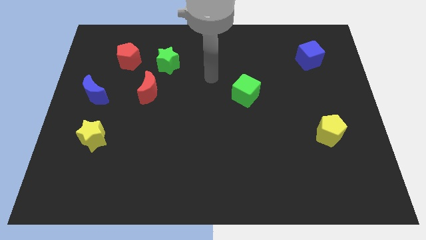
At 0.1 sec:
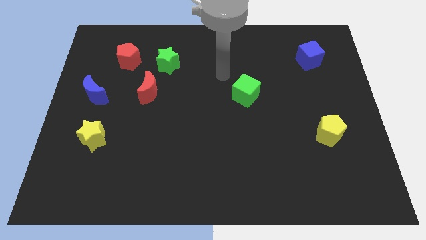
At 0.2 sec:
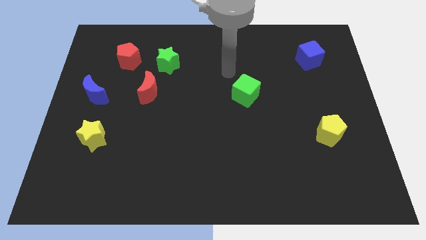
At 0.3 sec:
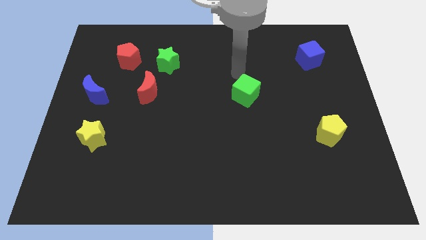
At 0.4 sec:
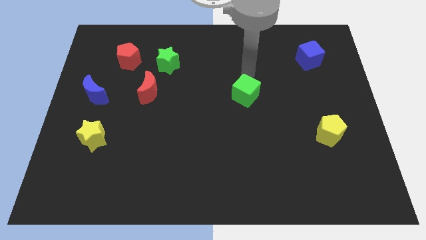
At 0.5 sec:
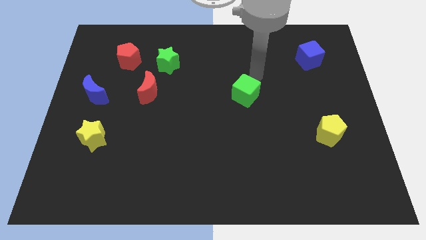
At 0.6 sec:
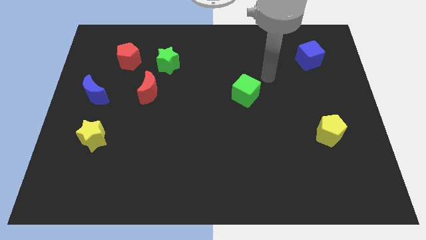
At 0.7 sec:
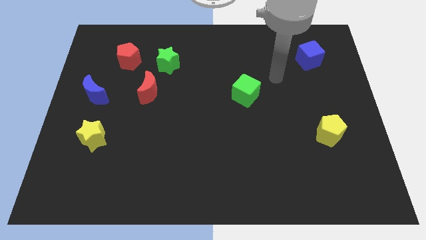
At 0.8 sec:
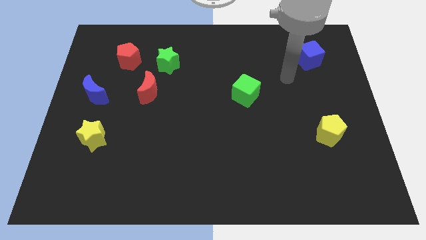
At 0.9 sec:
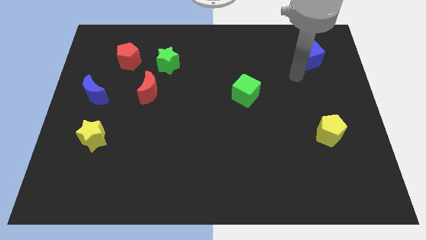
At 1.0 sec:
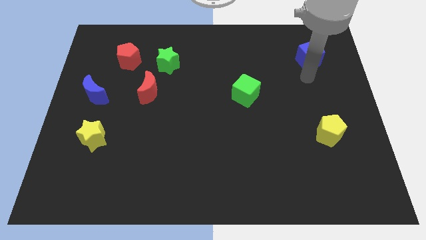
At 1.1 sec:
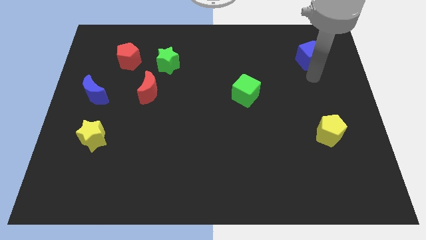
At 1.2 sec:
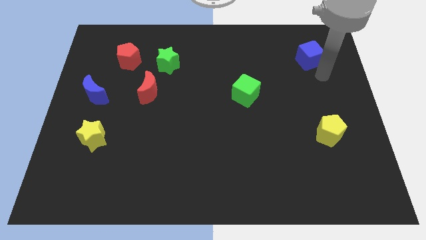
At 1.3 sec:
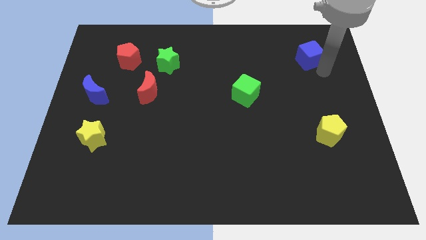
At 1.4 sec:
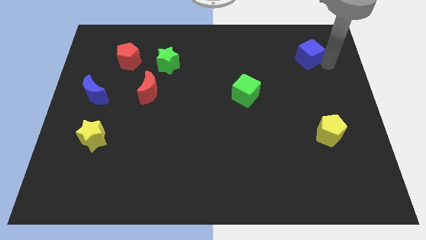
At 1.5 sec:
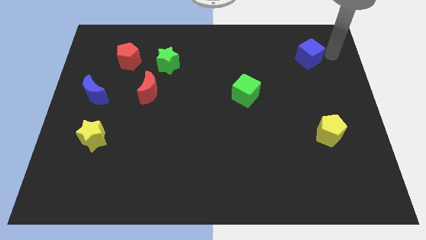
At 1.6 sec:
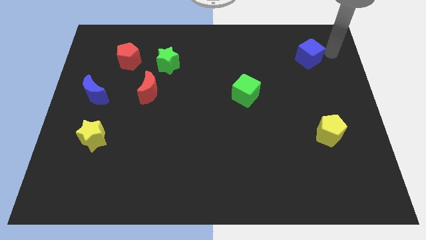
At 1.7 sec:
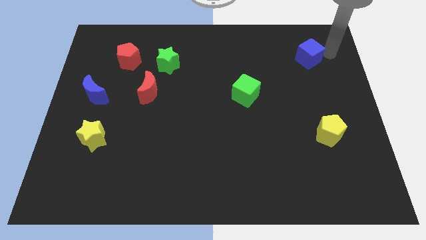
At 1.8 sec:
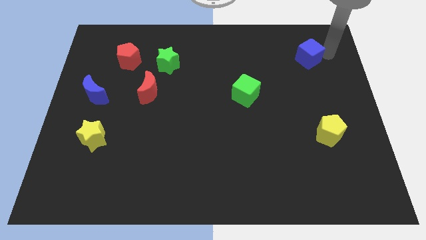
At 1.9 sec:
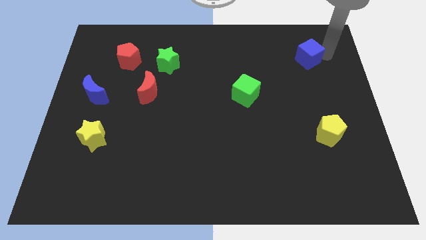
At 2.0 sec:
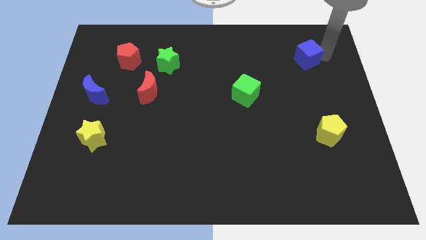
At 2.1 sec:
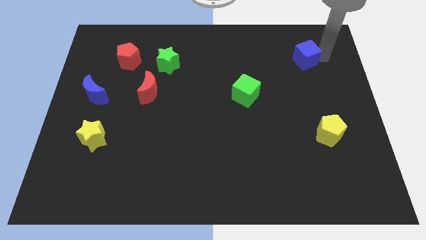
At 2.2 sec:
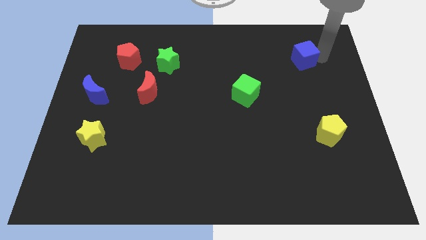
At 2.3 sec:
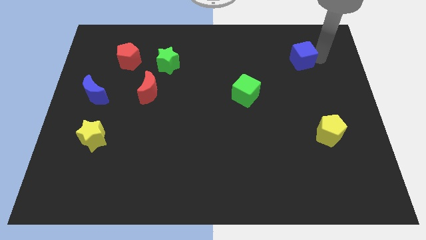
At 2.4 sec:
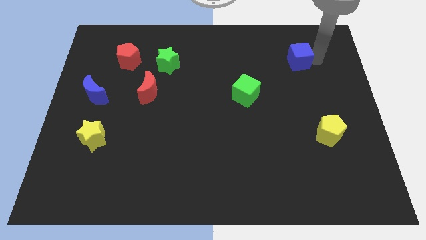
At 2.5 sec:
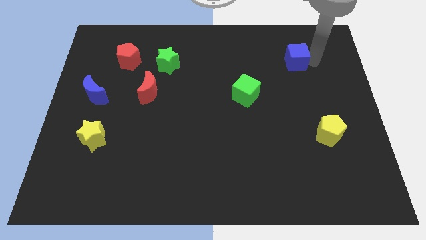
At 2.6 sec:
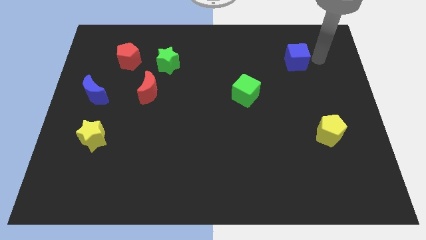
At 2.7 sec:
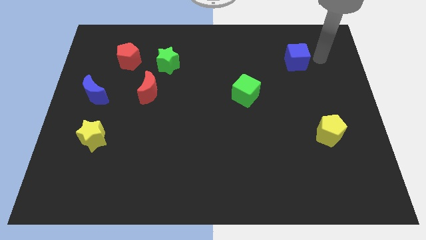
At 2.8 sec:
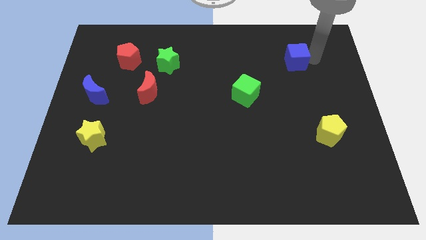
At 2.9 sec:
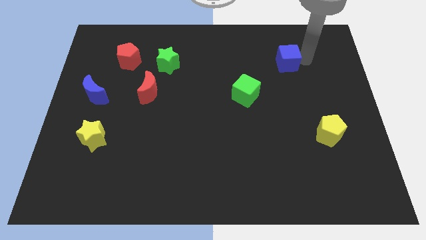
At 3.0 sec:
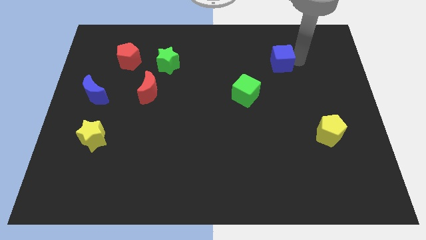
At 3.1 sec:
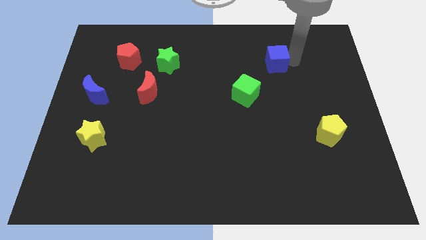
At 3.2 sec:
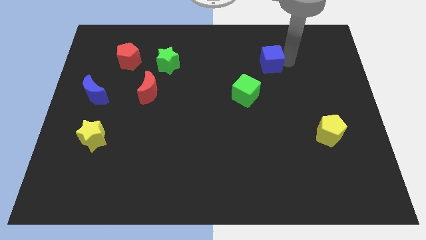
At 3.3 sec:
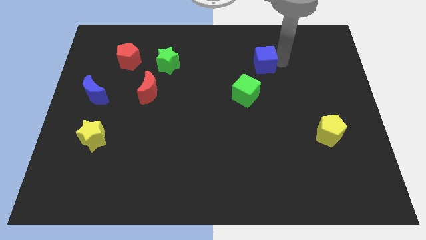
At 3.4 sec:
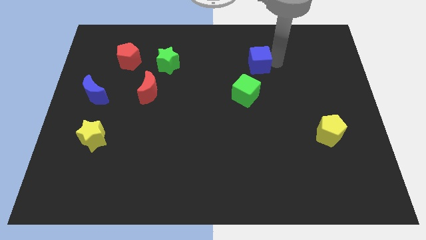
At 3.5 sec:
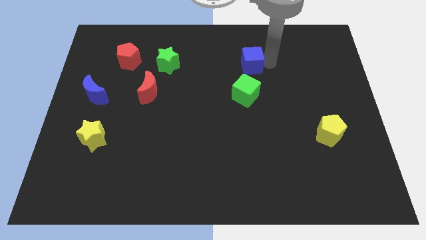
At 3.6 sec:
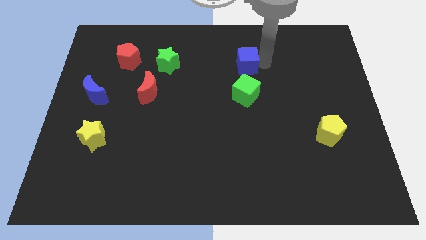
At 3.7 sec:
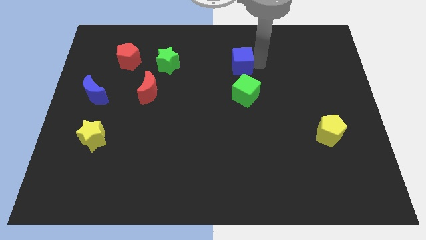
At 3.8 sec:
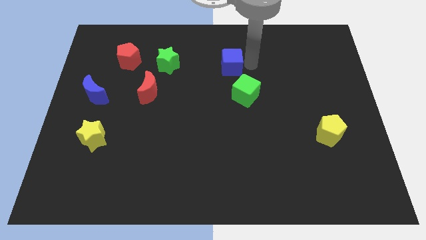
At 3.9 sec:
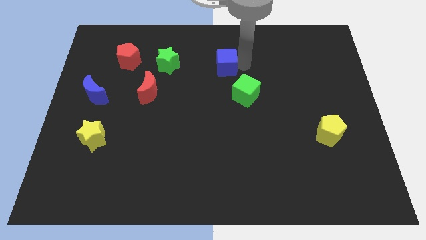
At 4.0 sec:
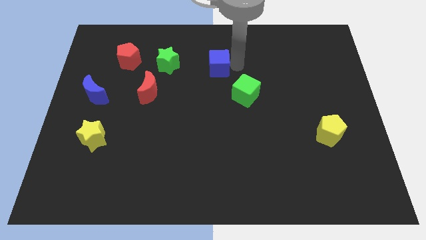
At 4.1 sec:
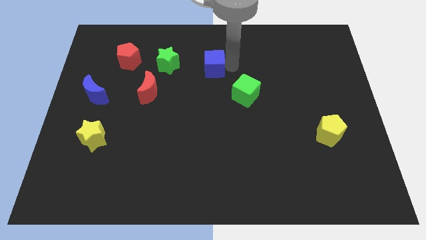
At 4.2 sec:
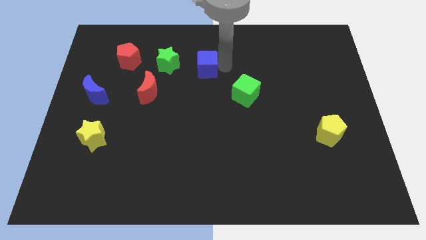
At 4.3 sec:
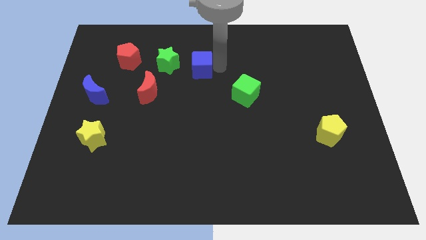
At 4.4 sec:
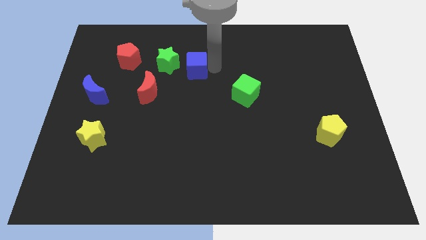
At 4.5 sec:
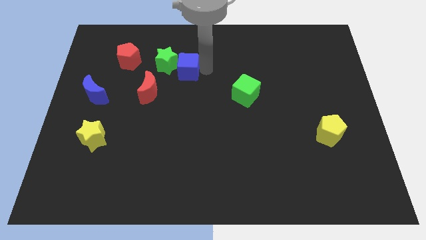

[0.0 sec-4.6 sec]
push the blue cube to the green star

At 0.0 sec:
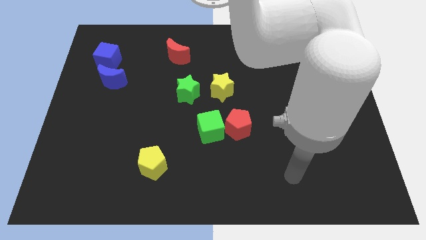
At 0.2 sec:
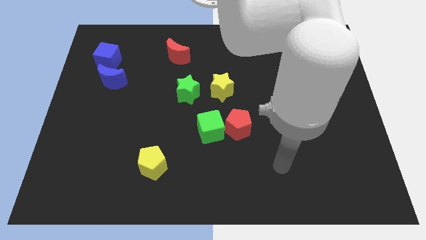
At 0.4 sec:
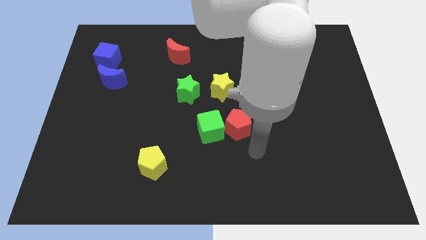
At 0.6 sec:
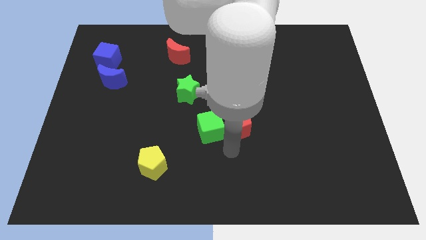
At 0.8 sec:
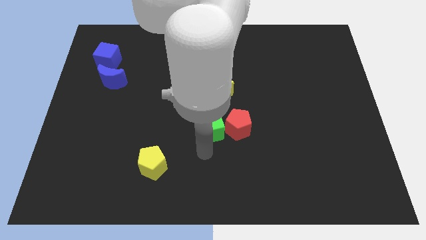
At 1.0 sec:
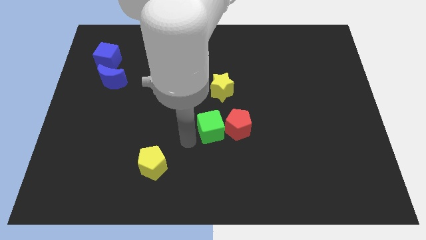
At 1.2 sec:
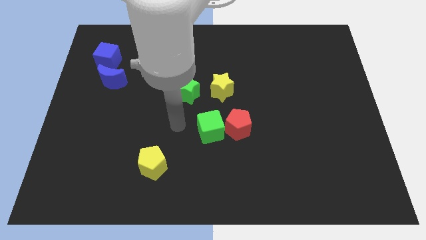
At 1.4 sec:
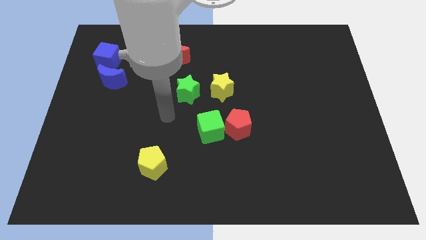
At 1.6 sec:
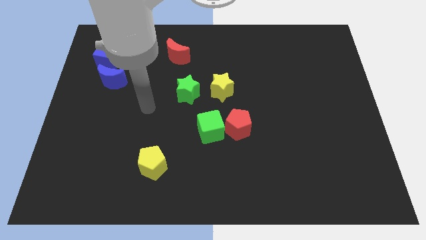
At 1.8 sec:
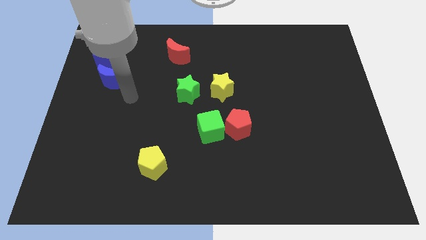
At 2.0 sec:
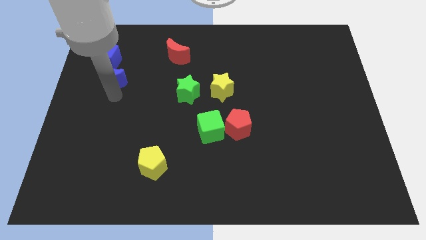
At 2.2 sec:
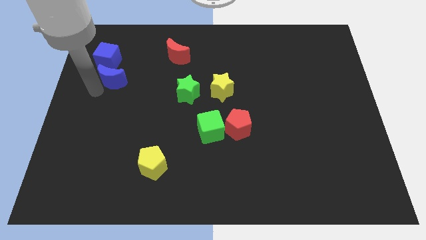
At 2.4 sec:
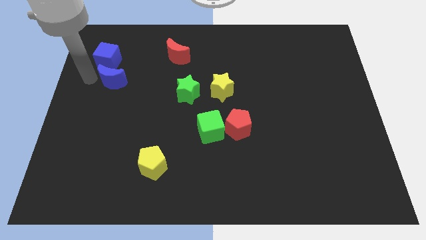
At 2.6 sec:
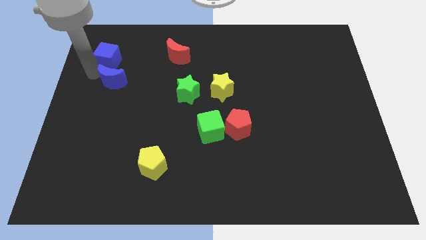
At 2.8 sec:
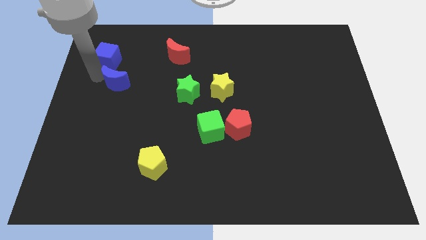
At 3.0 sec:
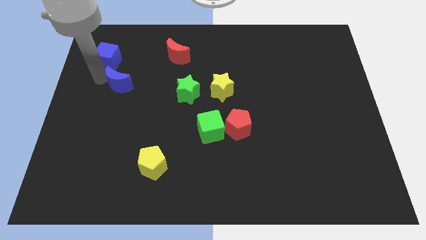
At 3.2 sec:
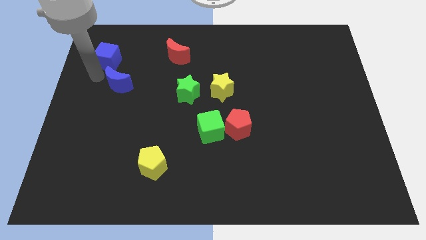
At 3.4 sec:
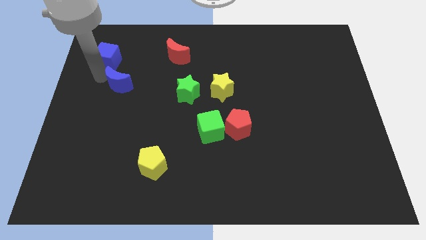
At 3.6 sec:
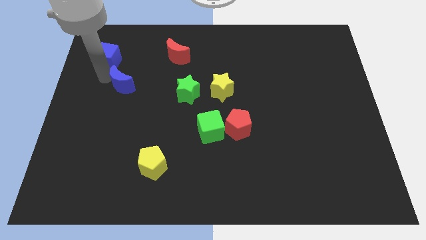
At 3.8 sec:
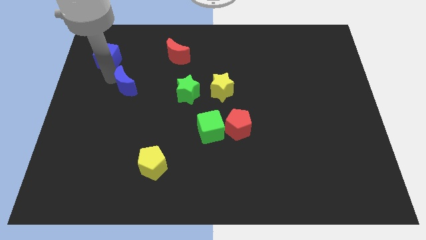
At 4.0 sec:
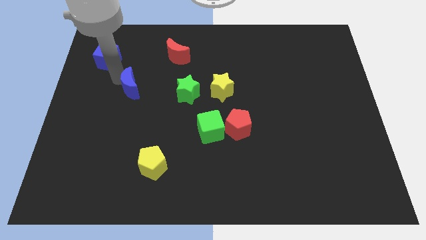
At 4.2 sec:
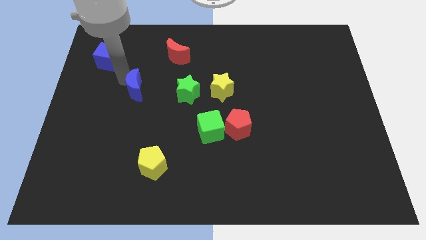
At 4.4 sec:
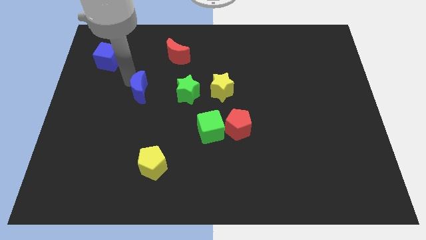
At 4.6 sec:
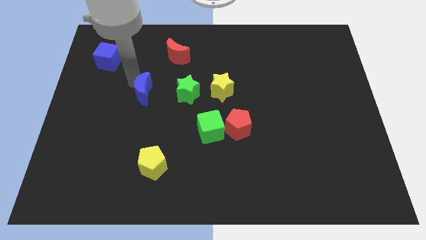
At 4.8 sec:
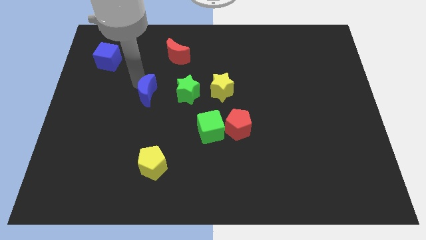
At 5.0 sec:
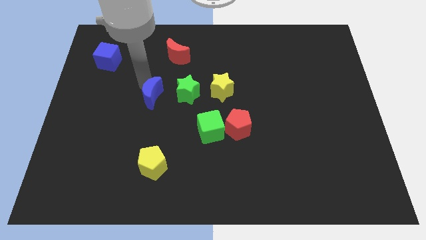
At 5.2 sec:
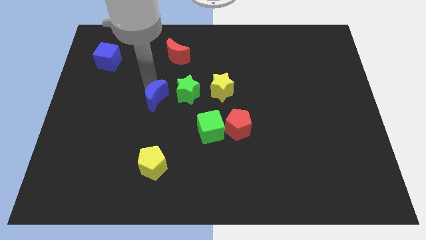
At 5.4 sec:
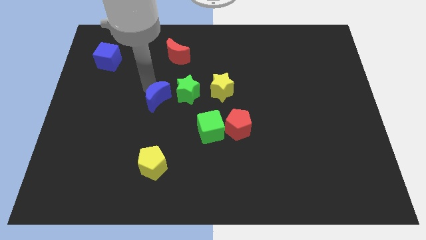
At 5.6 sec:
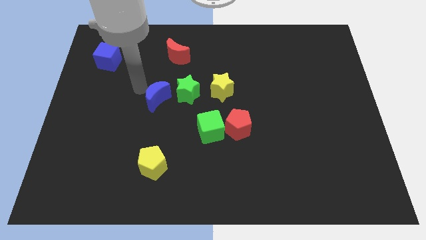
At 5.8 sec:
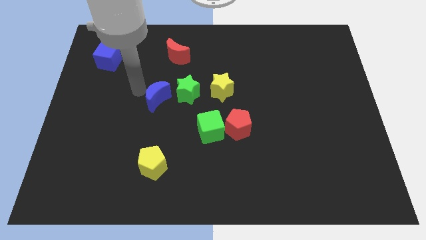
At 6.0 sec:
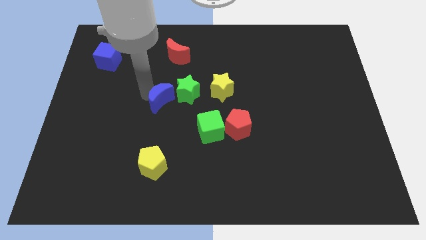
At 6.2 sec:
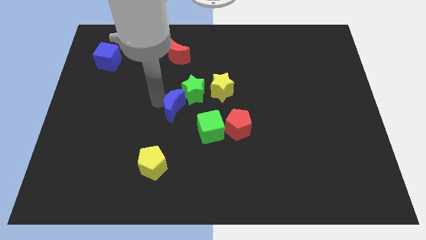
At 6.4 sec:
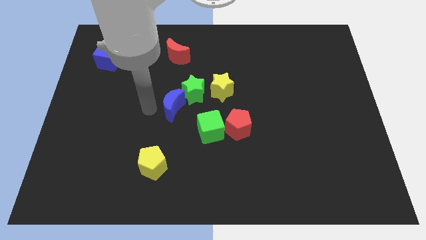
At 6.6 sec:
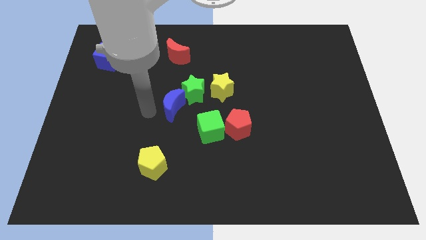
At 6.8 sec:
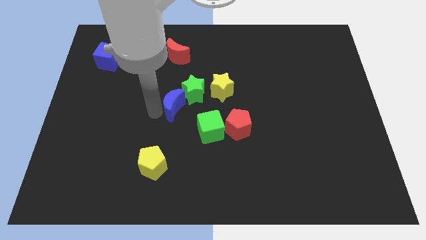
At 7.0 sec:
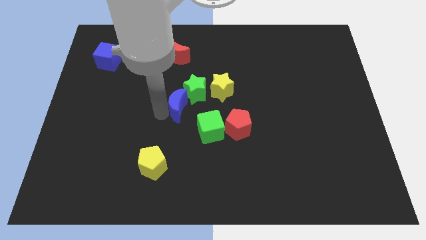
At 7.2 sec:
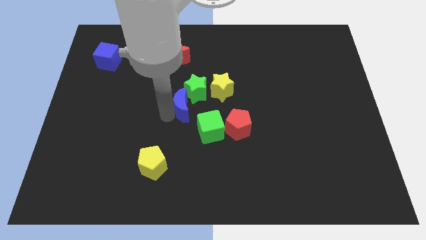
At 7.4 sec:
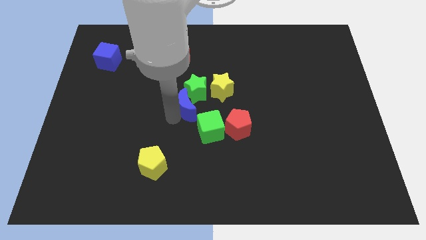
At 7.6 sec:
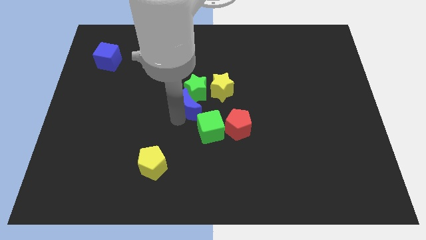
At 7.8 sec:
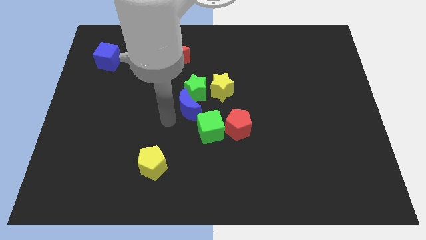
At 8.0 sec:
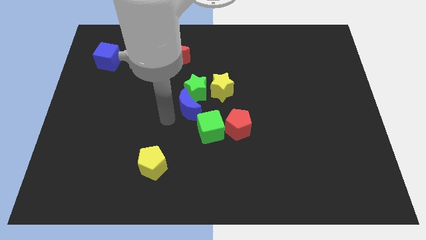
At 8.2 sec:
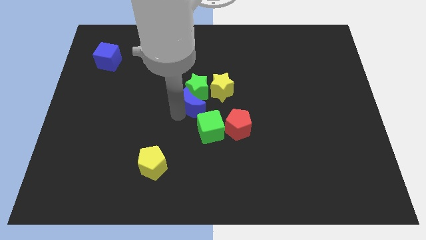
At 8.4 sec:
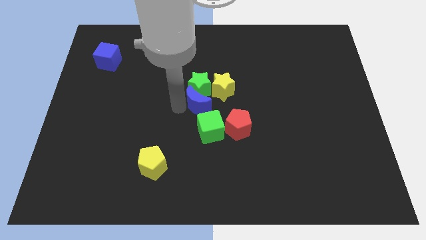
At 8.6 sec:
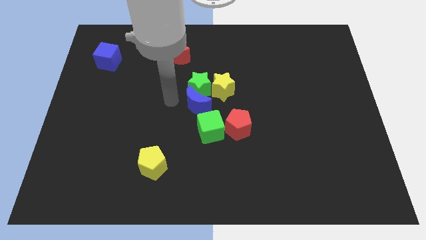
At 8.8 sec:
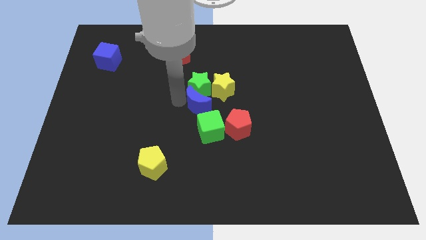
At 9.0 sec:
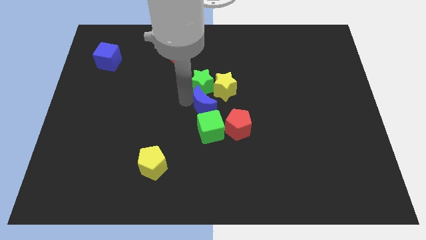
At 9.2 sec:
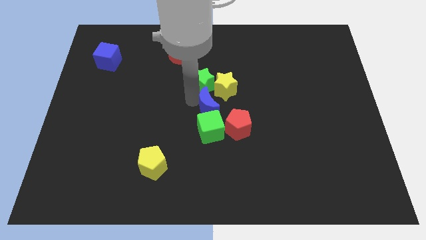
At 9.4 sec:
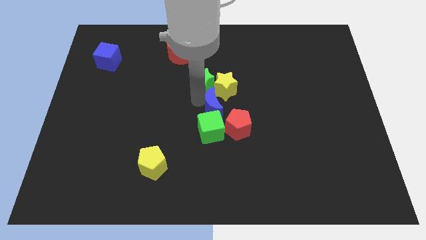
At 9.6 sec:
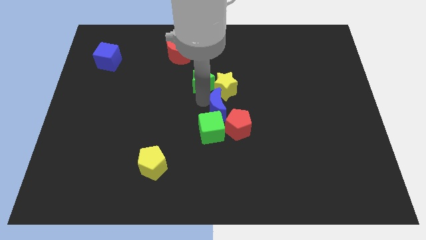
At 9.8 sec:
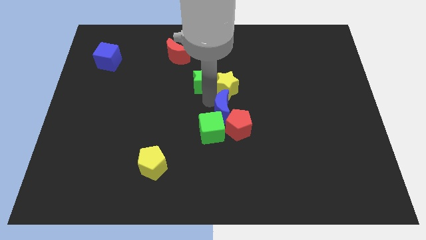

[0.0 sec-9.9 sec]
move the blue moon to the red pentagon
